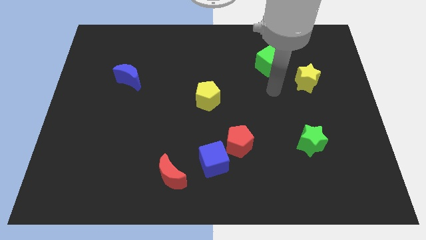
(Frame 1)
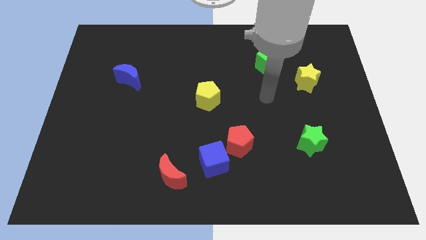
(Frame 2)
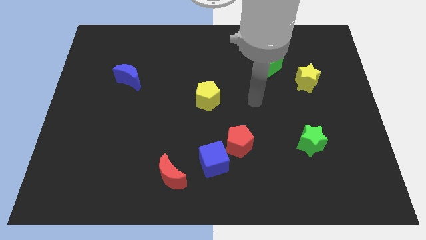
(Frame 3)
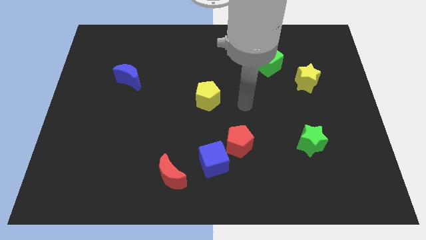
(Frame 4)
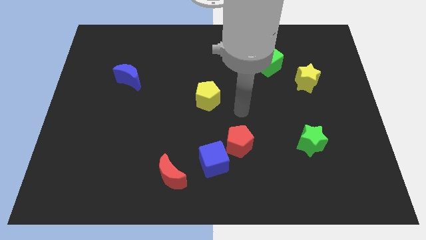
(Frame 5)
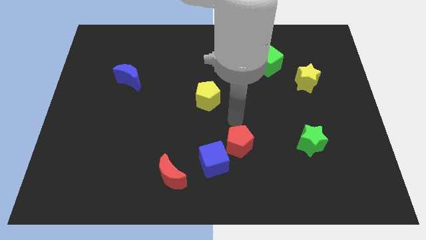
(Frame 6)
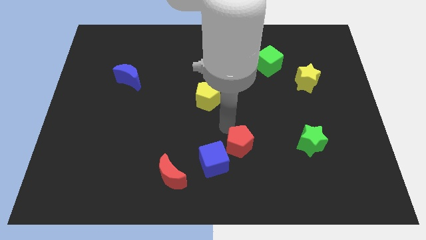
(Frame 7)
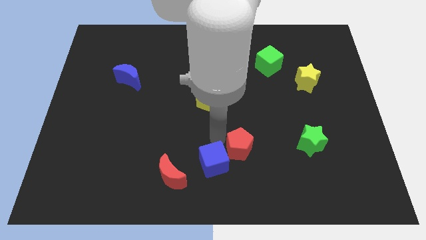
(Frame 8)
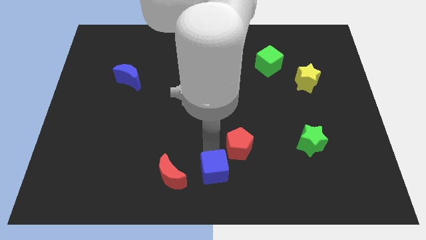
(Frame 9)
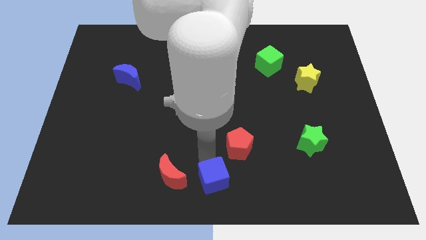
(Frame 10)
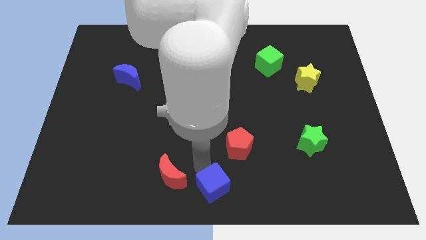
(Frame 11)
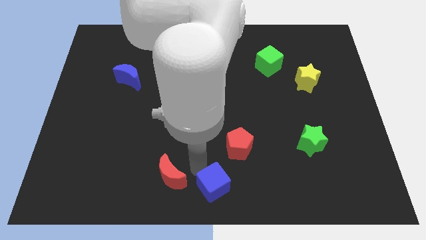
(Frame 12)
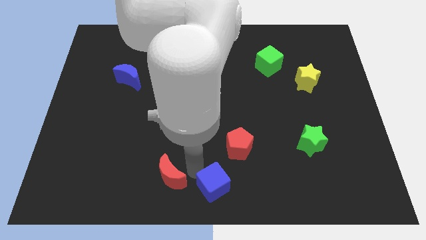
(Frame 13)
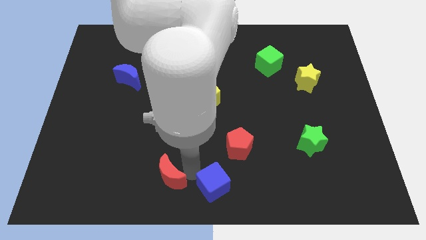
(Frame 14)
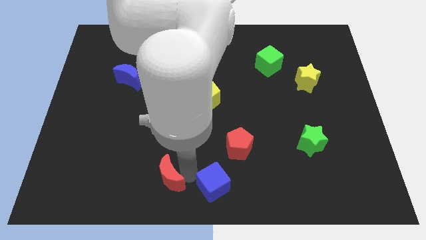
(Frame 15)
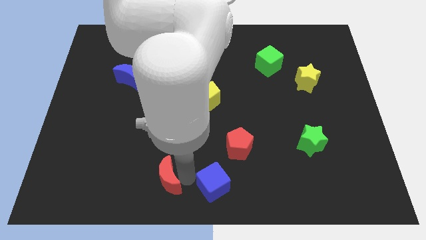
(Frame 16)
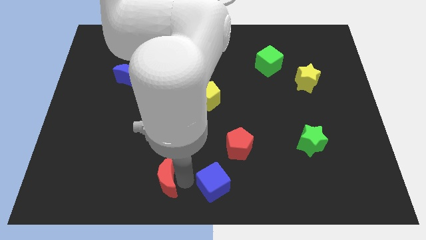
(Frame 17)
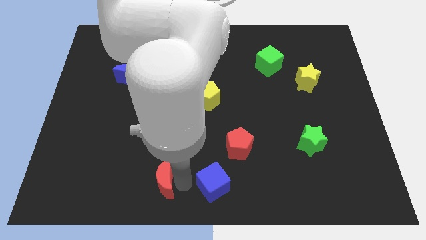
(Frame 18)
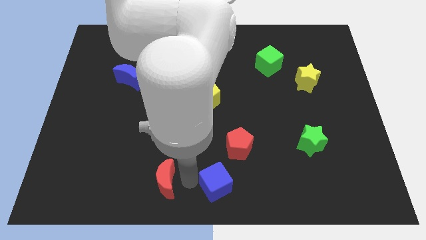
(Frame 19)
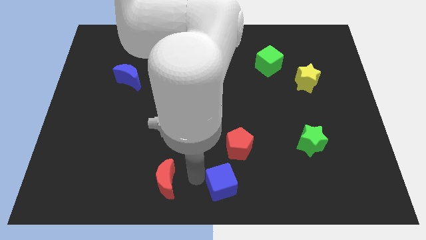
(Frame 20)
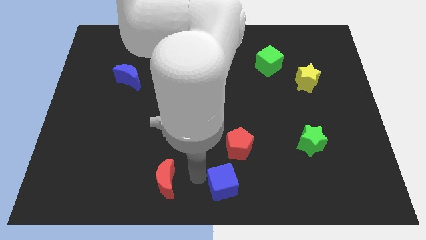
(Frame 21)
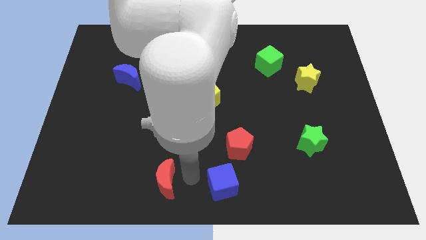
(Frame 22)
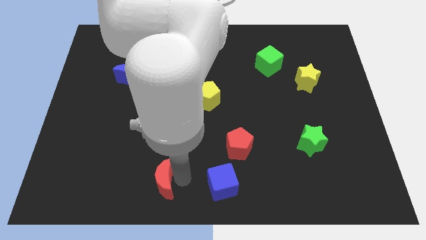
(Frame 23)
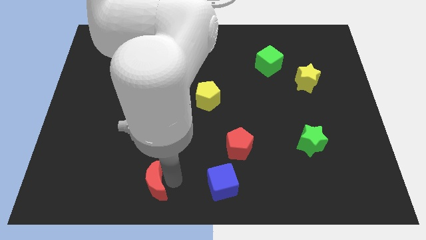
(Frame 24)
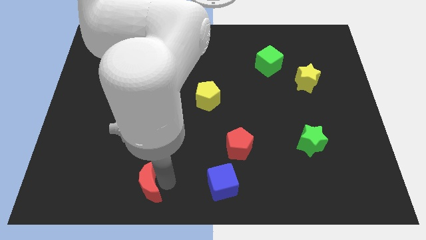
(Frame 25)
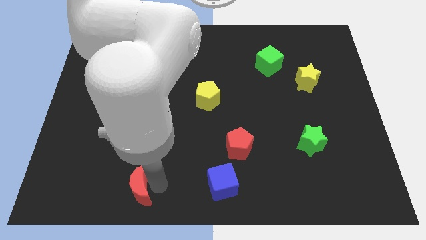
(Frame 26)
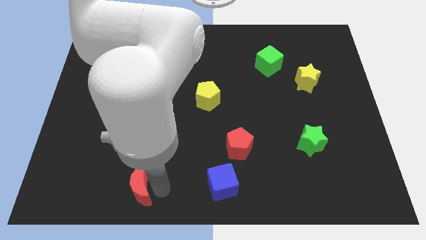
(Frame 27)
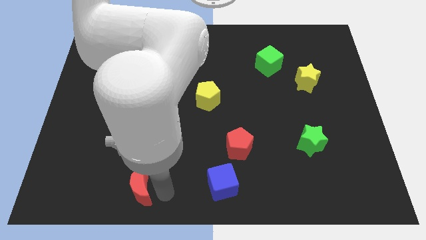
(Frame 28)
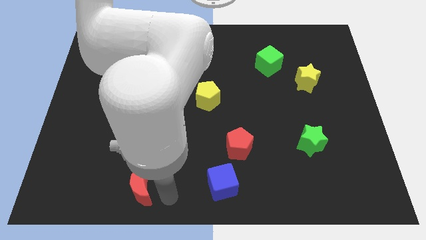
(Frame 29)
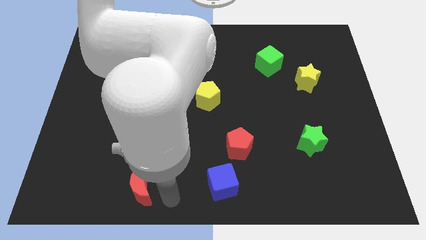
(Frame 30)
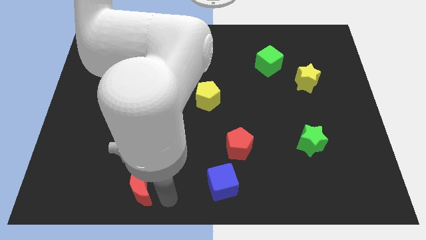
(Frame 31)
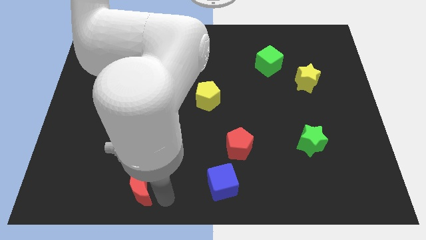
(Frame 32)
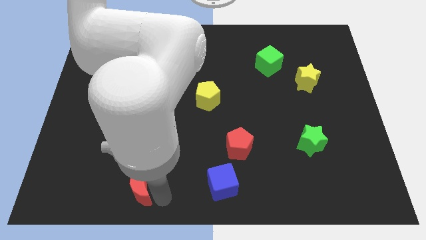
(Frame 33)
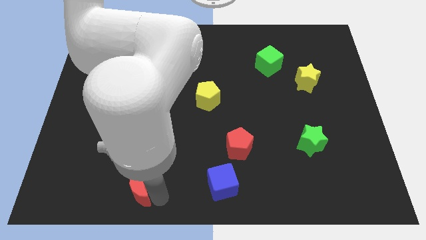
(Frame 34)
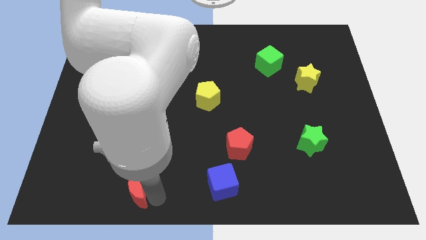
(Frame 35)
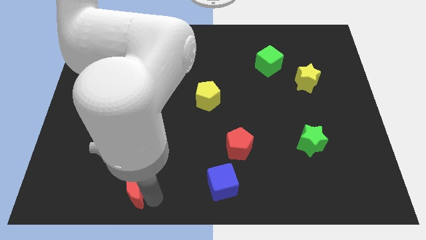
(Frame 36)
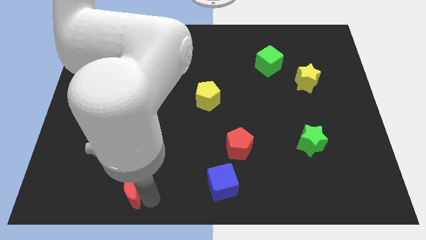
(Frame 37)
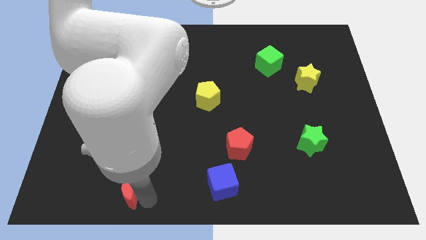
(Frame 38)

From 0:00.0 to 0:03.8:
slightly push the red moon left

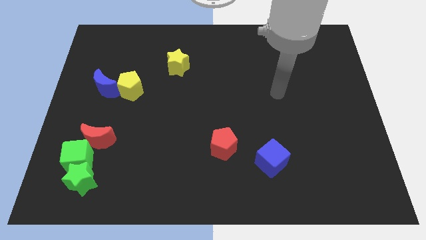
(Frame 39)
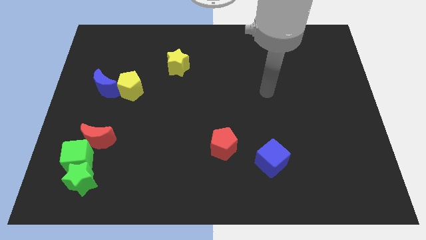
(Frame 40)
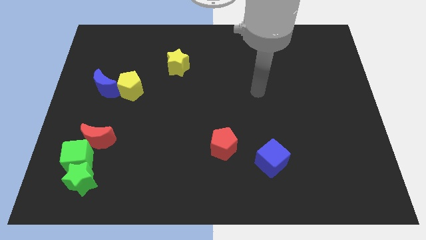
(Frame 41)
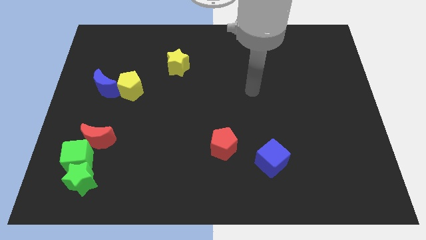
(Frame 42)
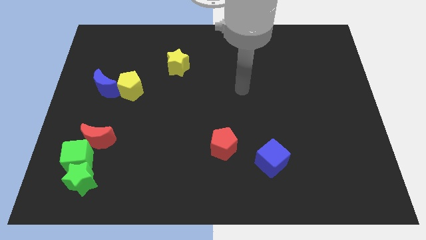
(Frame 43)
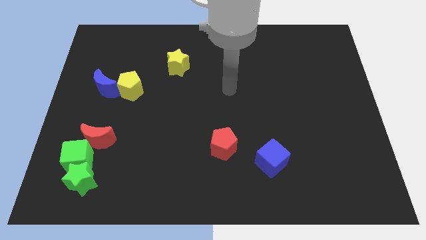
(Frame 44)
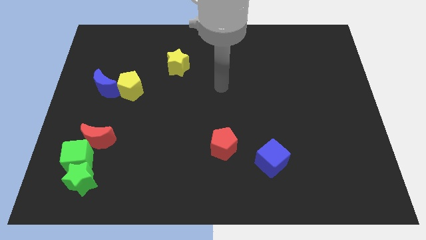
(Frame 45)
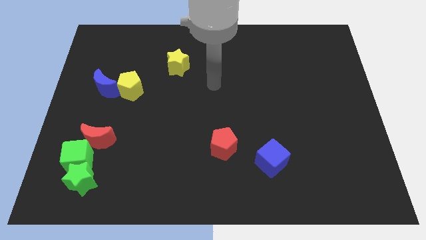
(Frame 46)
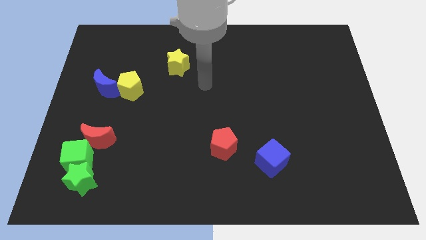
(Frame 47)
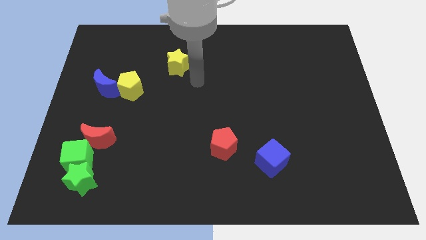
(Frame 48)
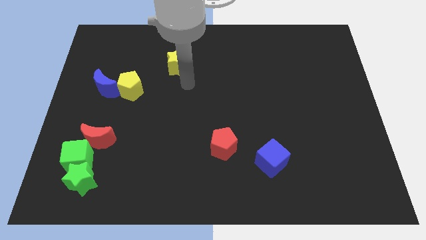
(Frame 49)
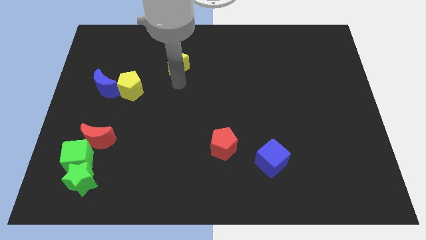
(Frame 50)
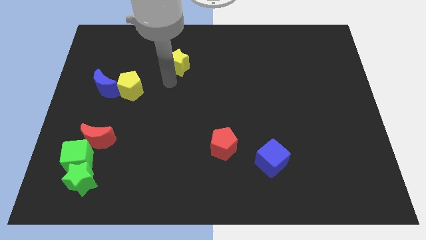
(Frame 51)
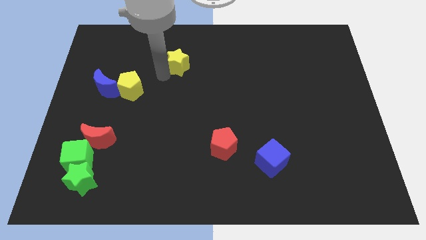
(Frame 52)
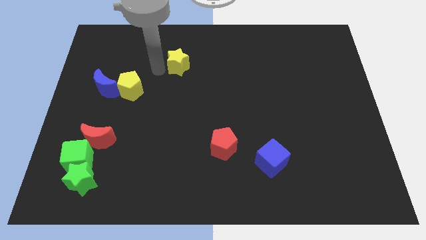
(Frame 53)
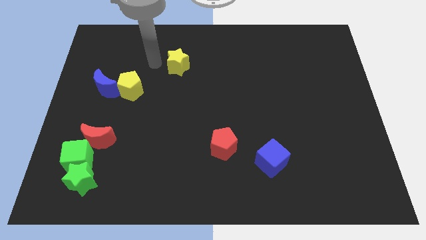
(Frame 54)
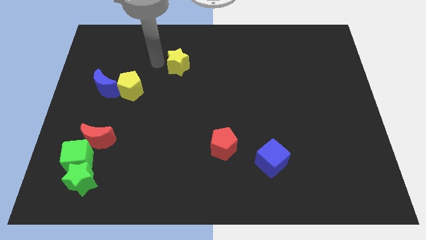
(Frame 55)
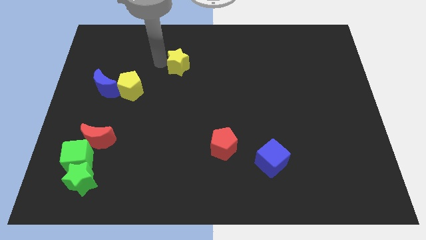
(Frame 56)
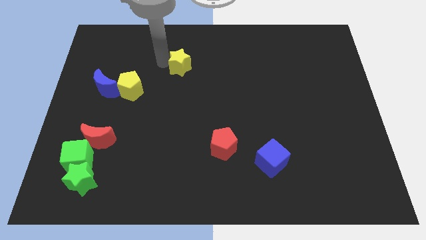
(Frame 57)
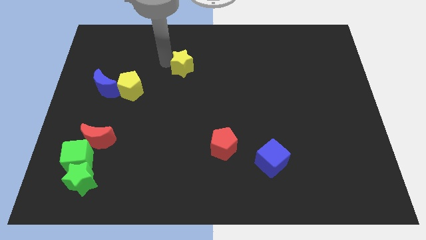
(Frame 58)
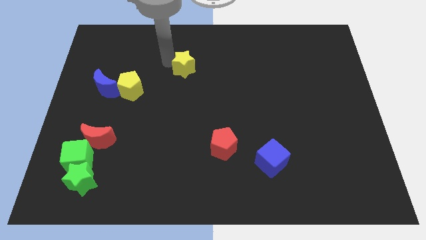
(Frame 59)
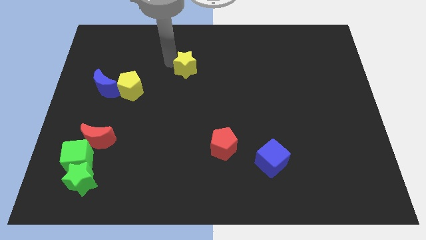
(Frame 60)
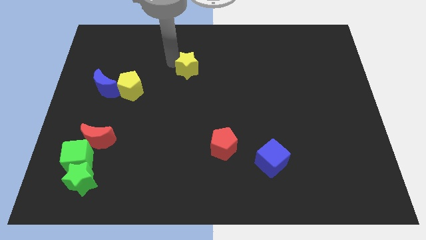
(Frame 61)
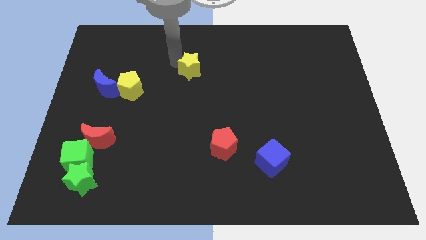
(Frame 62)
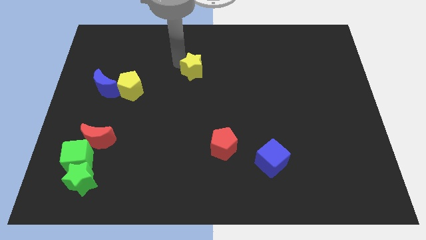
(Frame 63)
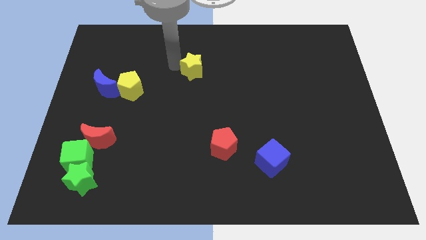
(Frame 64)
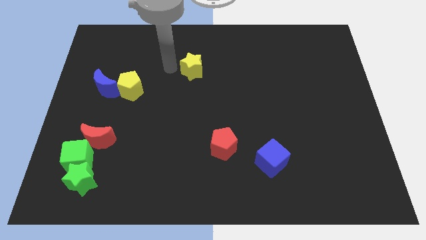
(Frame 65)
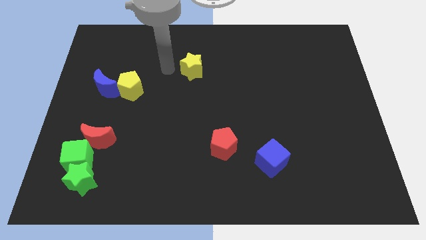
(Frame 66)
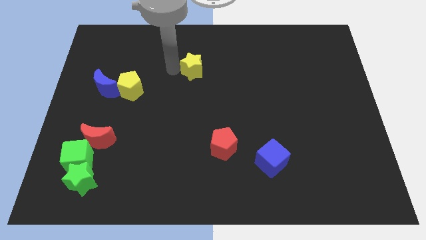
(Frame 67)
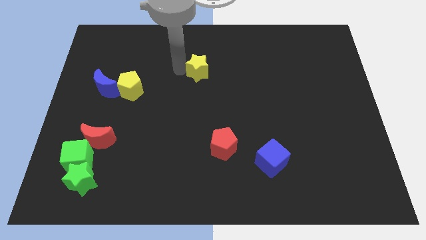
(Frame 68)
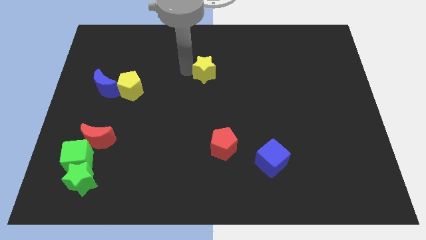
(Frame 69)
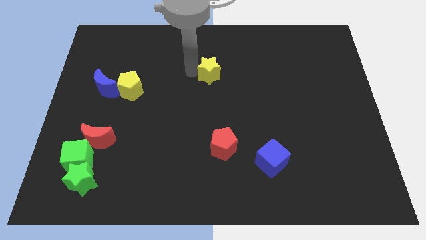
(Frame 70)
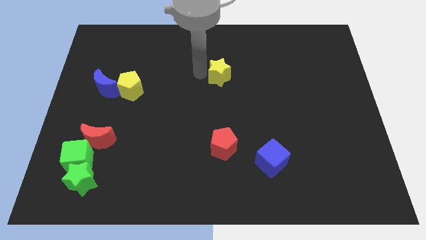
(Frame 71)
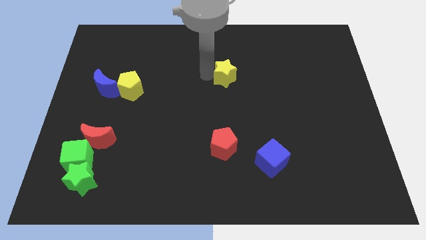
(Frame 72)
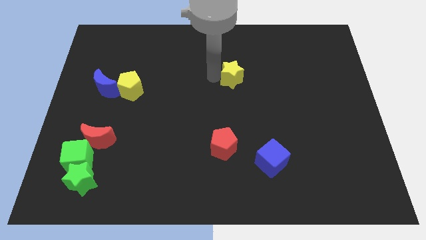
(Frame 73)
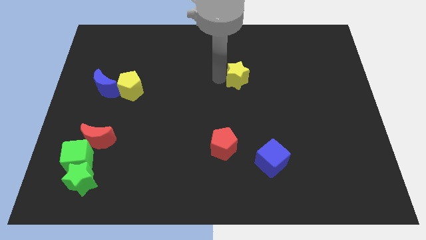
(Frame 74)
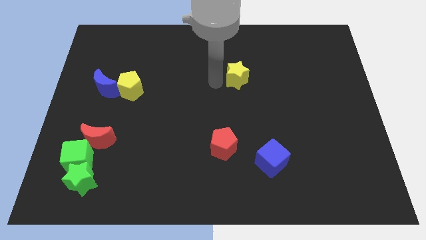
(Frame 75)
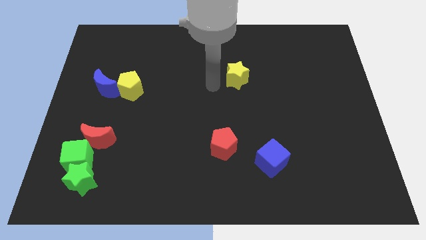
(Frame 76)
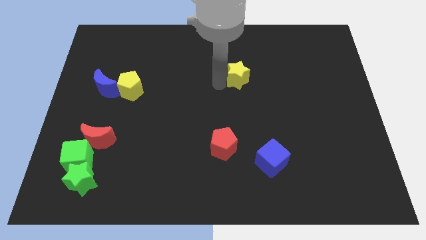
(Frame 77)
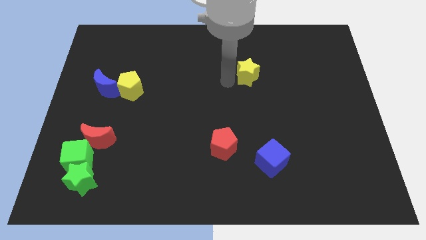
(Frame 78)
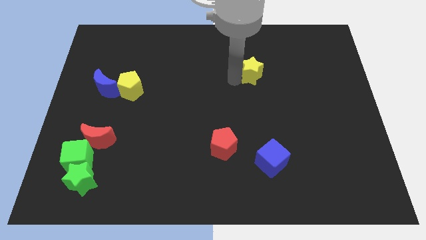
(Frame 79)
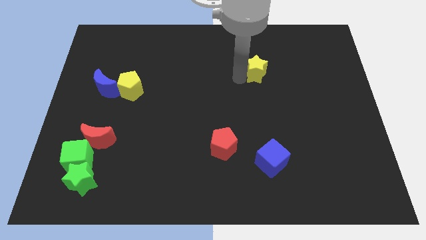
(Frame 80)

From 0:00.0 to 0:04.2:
move the yellow star right
